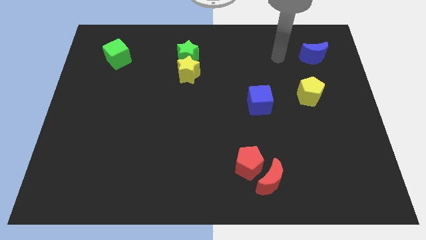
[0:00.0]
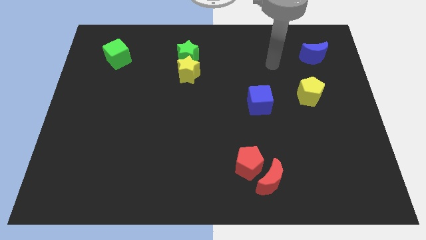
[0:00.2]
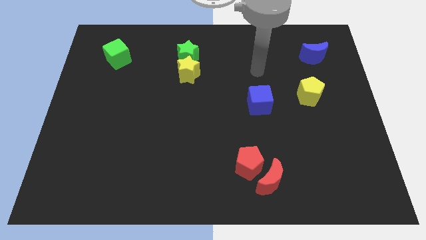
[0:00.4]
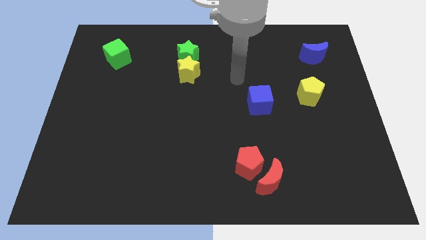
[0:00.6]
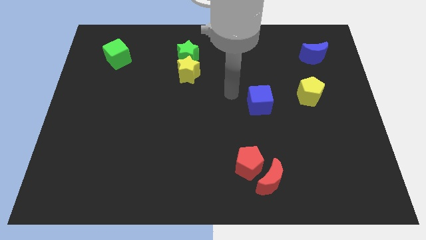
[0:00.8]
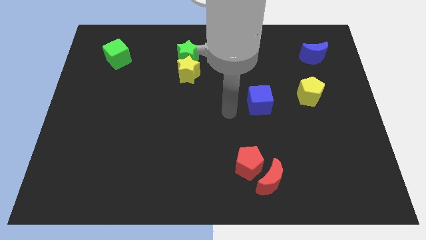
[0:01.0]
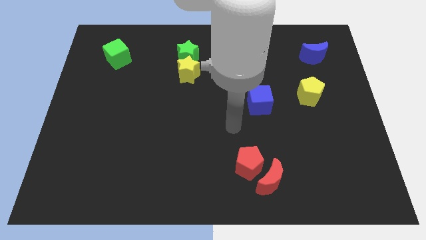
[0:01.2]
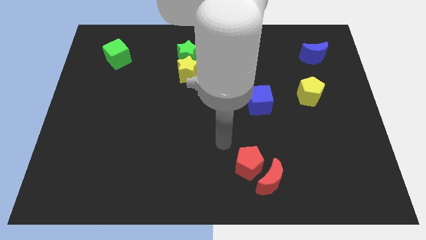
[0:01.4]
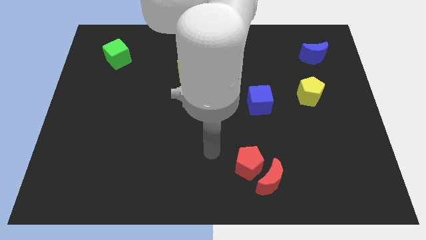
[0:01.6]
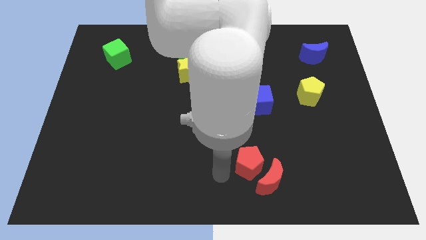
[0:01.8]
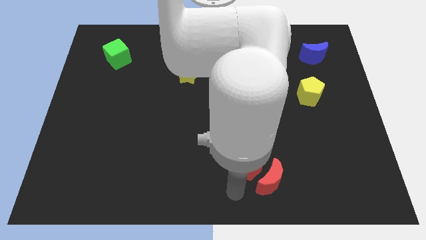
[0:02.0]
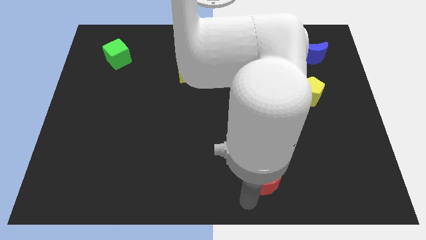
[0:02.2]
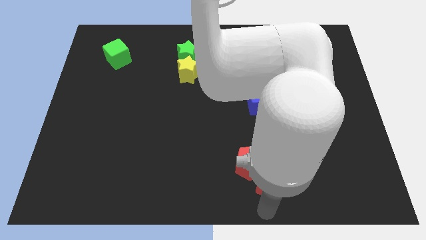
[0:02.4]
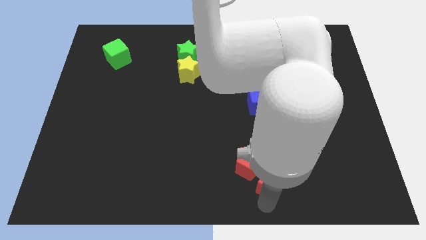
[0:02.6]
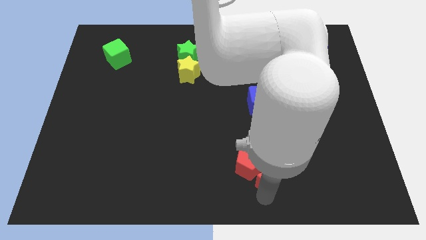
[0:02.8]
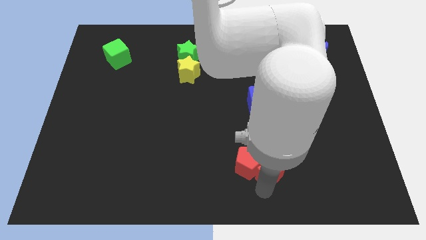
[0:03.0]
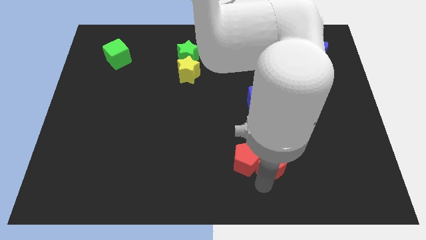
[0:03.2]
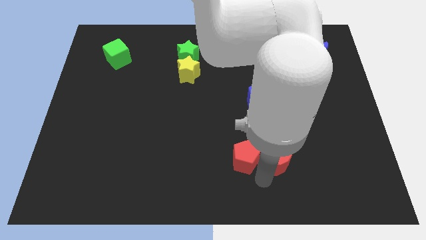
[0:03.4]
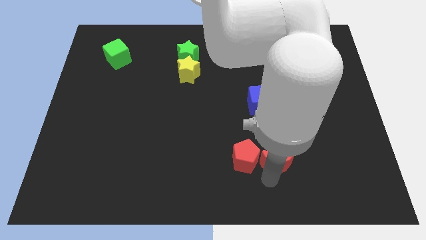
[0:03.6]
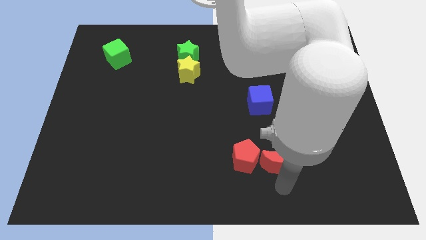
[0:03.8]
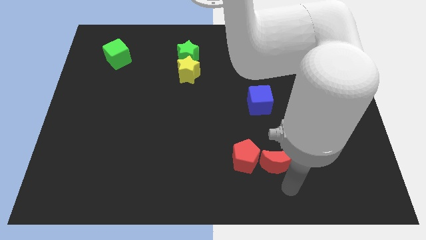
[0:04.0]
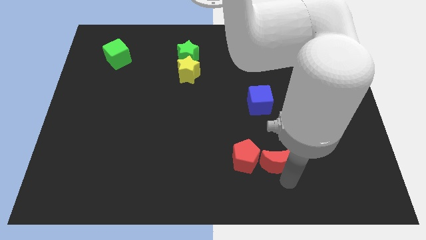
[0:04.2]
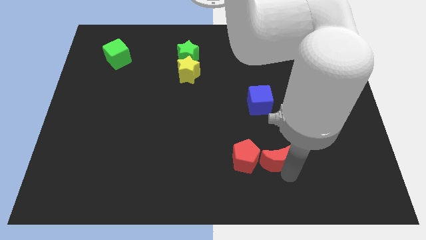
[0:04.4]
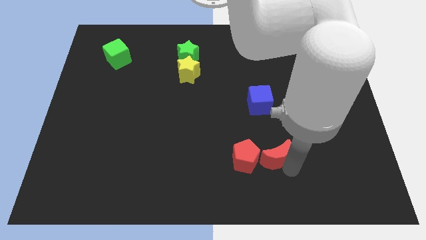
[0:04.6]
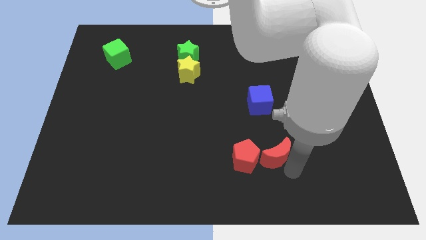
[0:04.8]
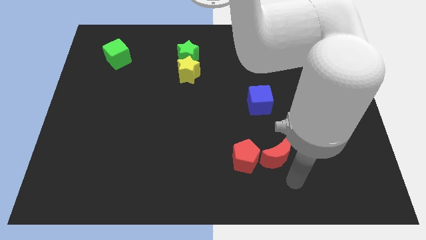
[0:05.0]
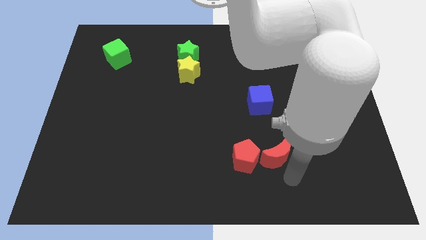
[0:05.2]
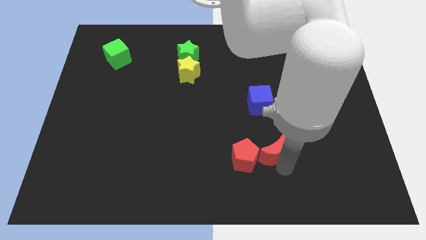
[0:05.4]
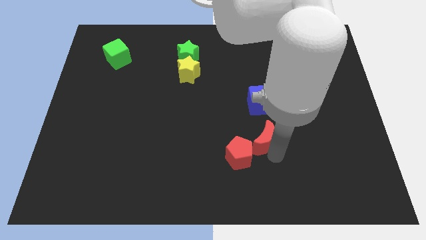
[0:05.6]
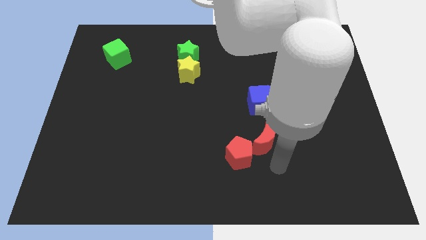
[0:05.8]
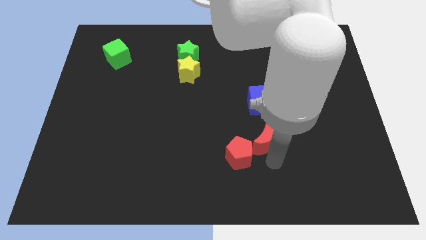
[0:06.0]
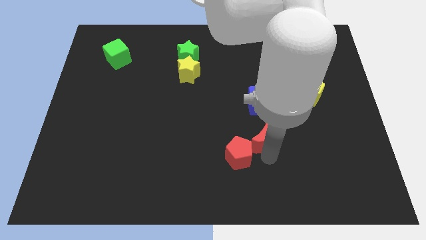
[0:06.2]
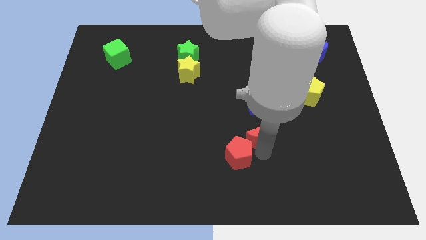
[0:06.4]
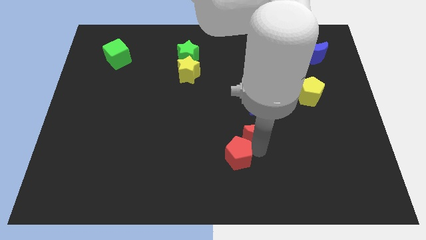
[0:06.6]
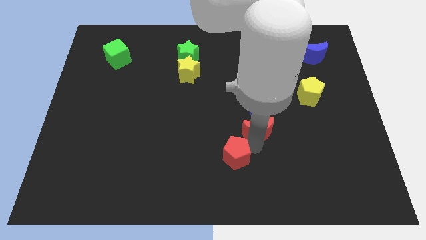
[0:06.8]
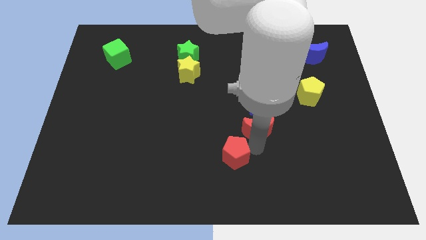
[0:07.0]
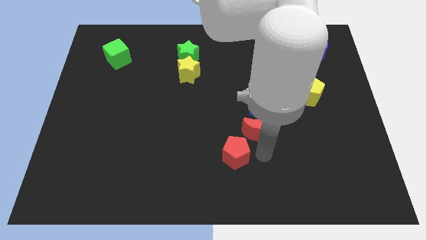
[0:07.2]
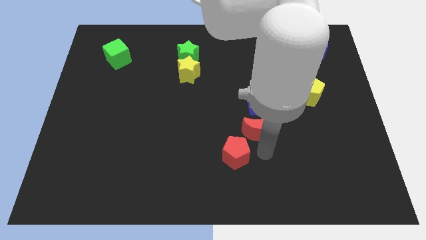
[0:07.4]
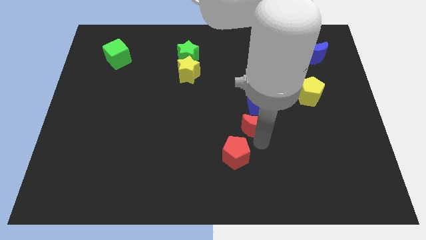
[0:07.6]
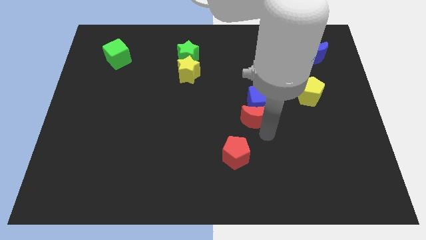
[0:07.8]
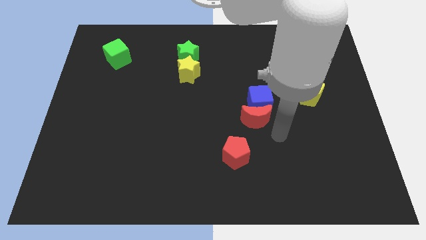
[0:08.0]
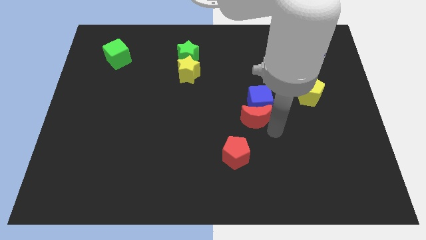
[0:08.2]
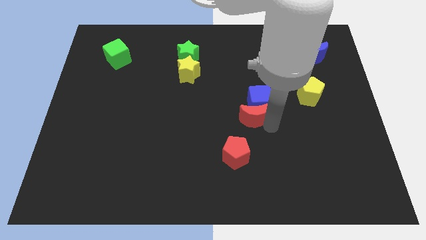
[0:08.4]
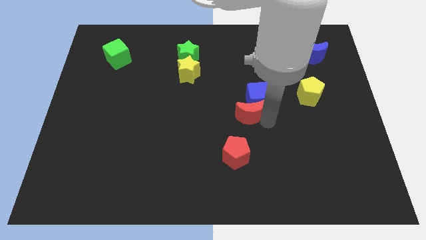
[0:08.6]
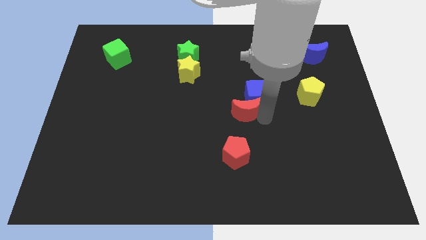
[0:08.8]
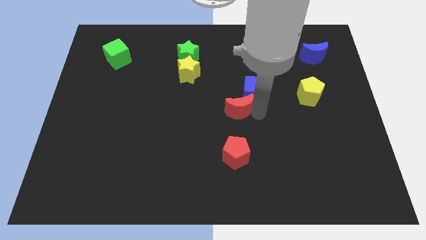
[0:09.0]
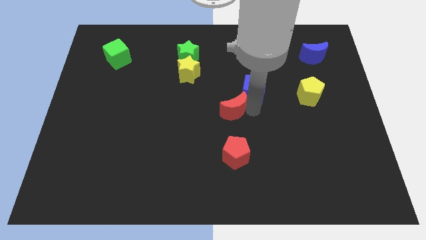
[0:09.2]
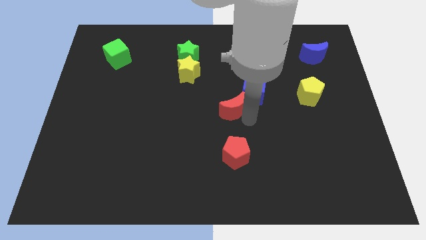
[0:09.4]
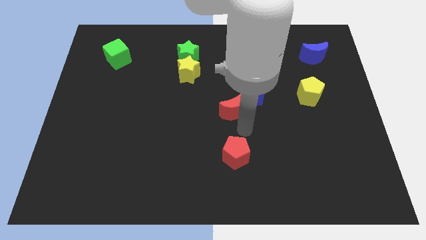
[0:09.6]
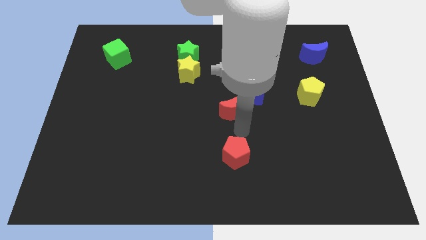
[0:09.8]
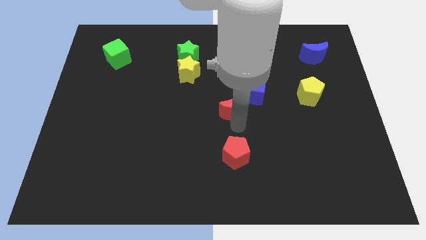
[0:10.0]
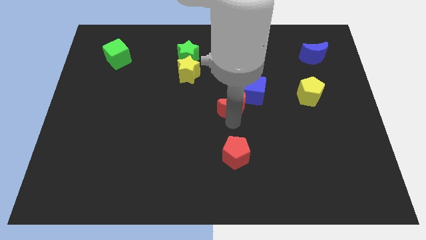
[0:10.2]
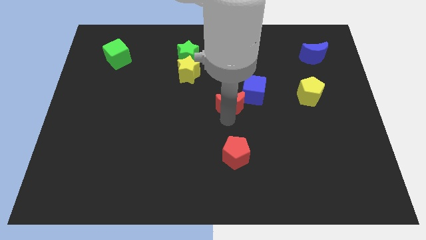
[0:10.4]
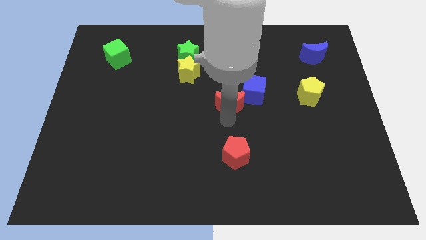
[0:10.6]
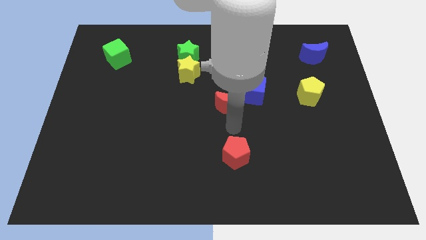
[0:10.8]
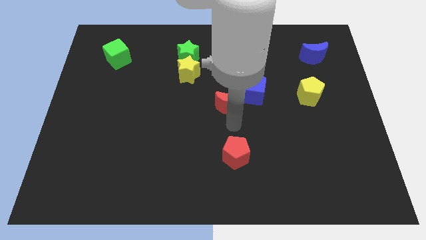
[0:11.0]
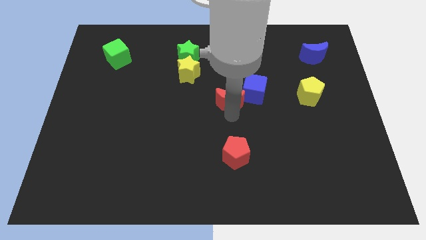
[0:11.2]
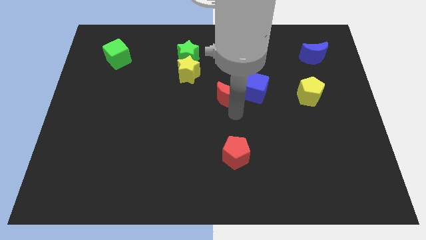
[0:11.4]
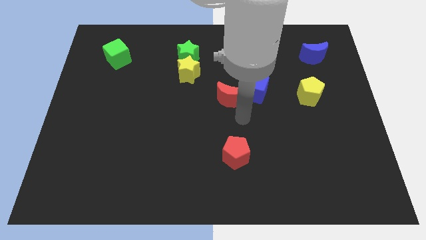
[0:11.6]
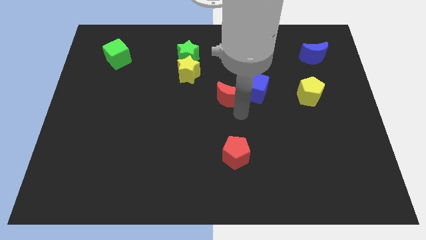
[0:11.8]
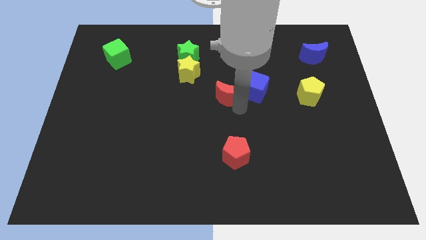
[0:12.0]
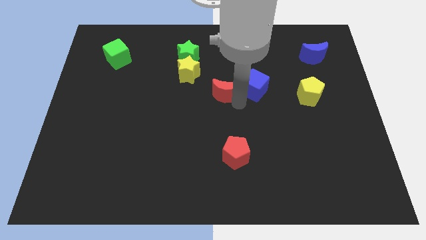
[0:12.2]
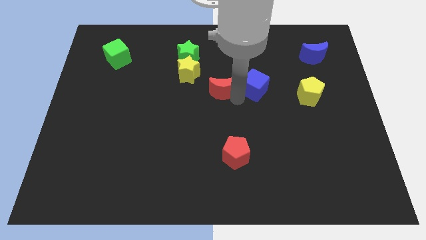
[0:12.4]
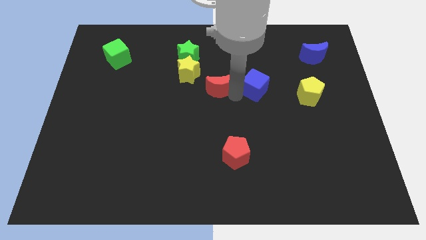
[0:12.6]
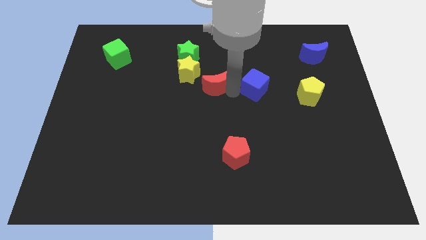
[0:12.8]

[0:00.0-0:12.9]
move the red moon diagonally down and to the right of the green star
